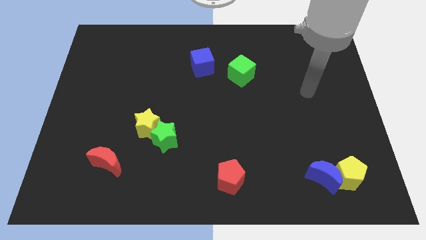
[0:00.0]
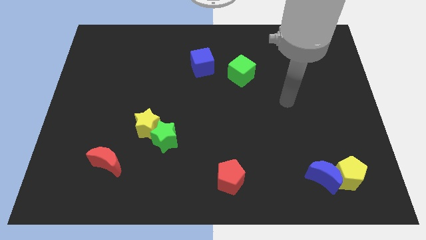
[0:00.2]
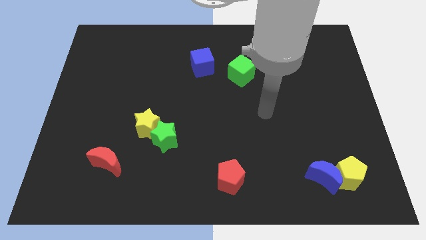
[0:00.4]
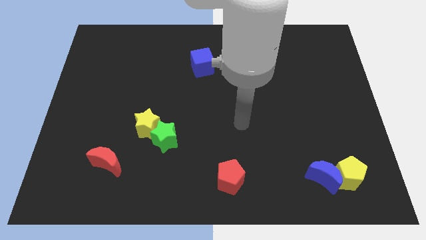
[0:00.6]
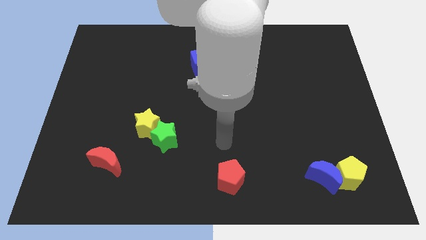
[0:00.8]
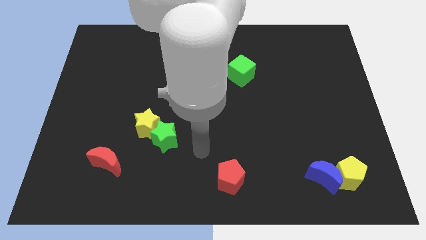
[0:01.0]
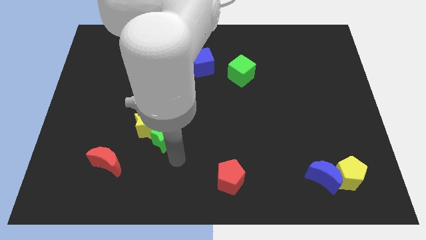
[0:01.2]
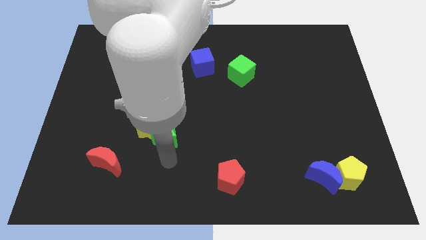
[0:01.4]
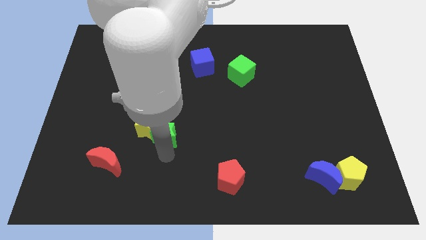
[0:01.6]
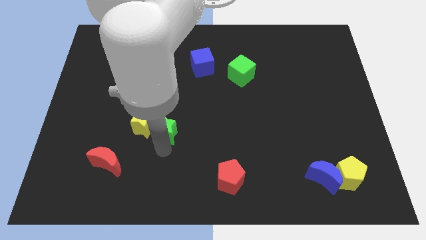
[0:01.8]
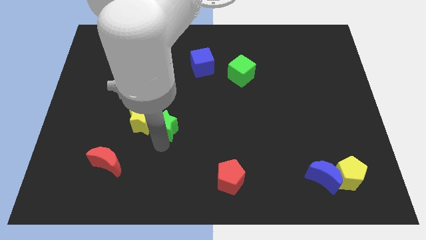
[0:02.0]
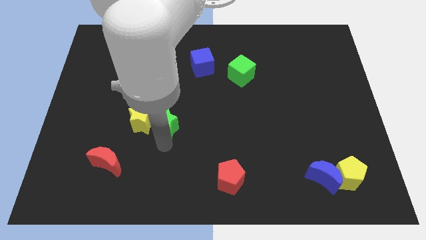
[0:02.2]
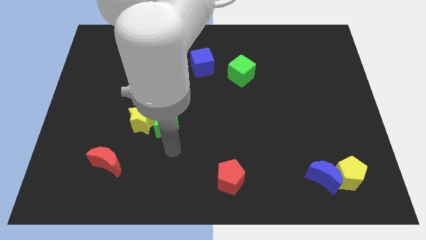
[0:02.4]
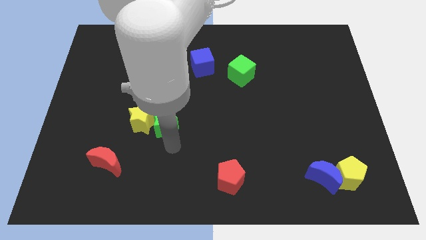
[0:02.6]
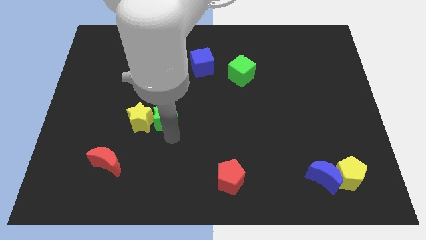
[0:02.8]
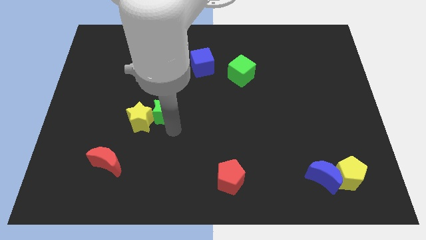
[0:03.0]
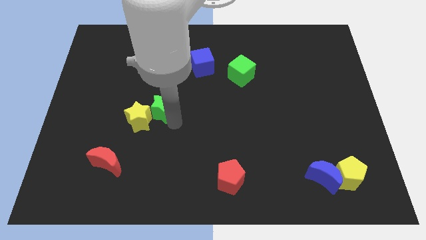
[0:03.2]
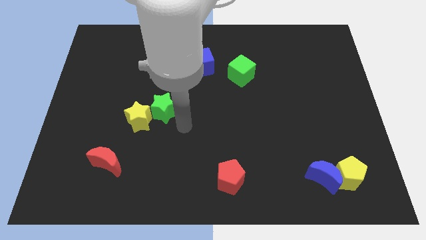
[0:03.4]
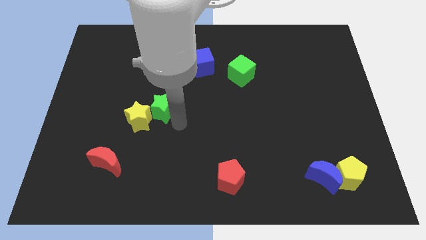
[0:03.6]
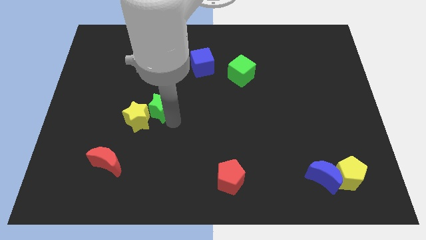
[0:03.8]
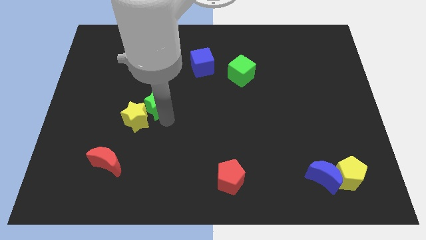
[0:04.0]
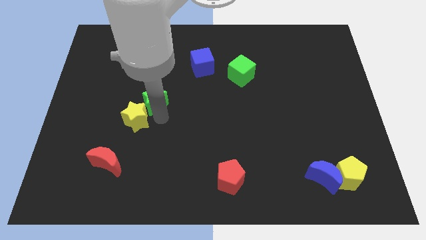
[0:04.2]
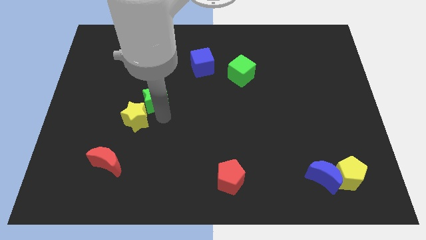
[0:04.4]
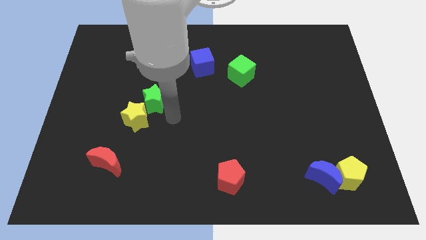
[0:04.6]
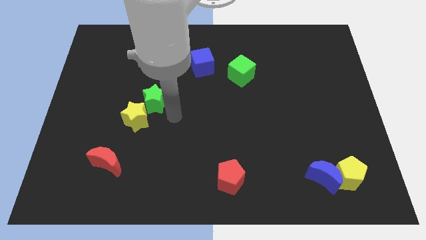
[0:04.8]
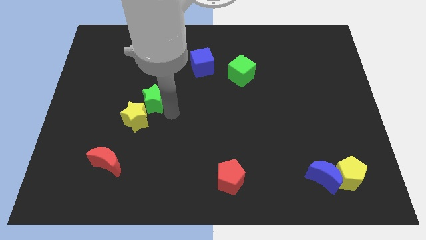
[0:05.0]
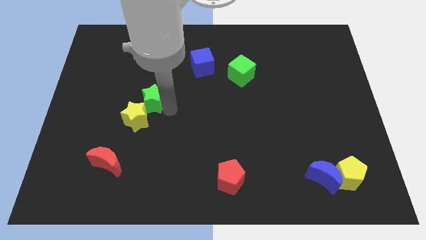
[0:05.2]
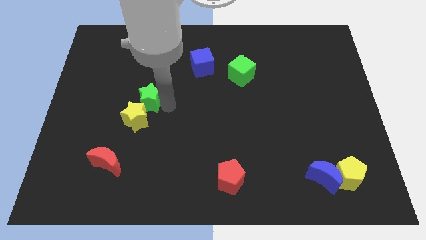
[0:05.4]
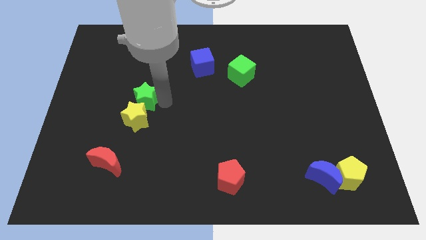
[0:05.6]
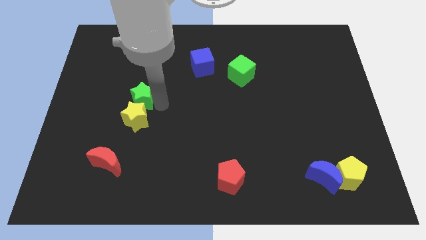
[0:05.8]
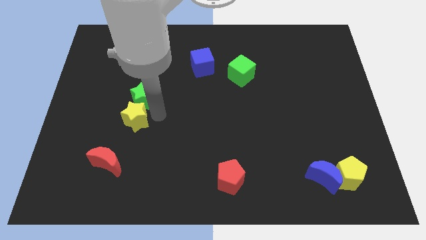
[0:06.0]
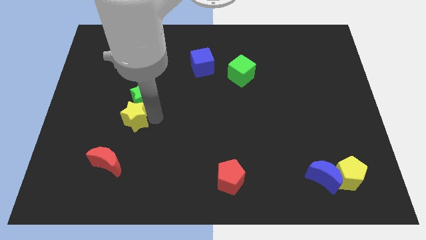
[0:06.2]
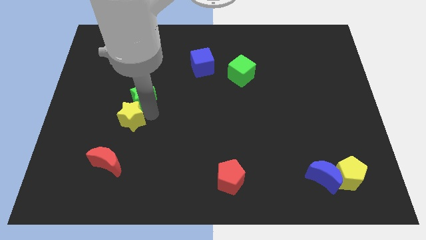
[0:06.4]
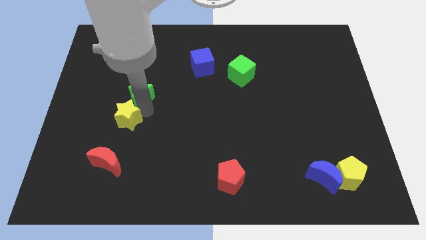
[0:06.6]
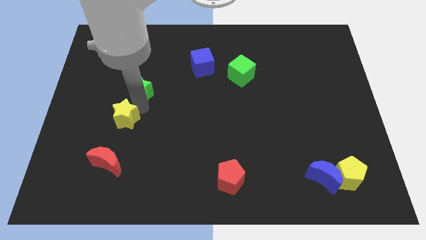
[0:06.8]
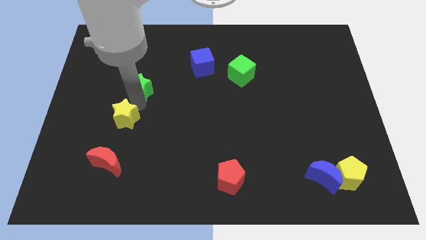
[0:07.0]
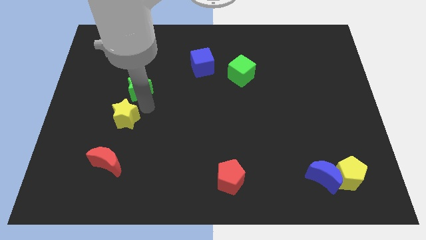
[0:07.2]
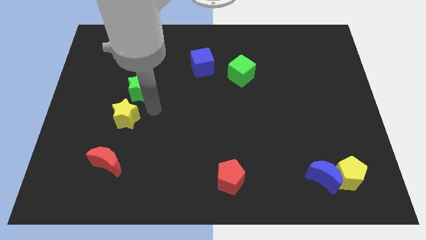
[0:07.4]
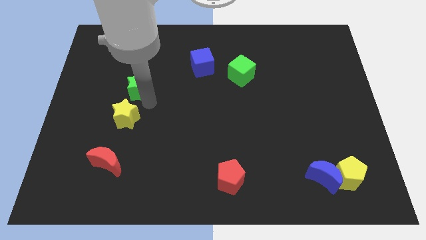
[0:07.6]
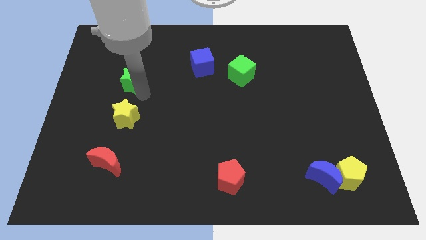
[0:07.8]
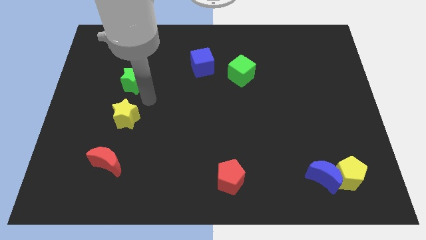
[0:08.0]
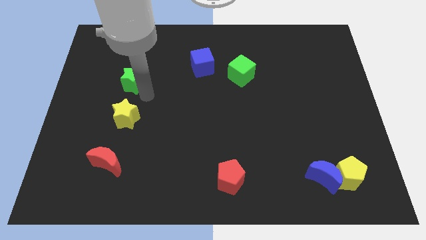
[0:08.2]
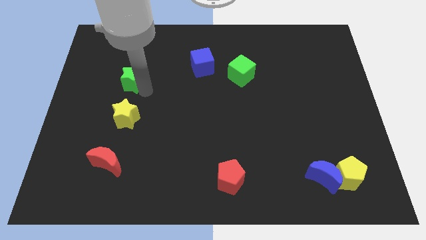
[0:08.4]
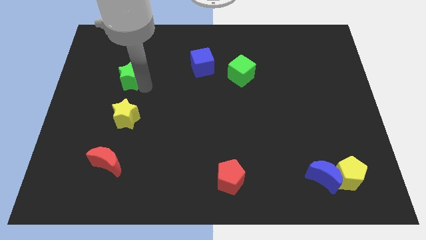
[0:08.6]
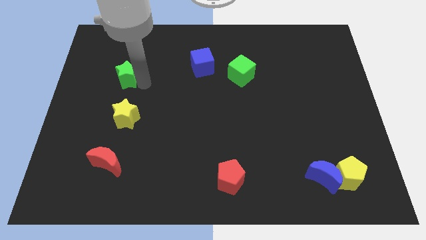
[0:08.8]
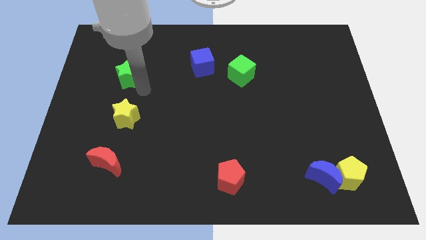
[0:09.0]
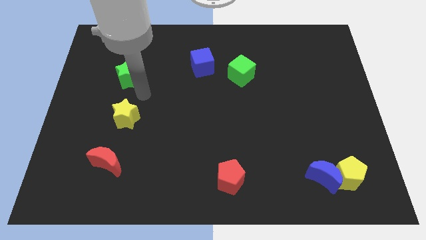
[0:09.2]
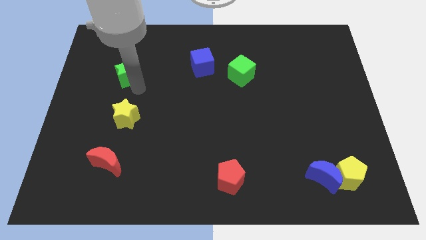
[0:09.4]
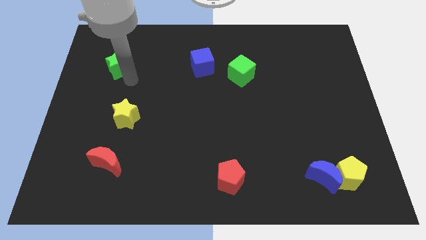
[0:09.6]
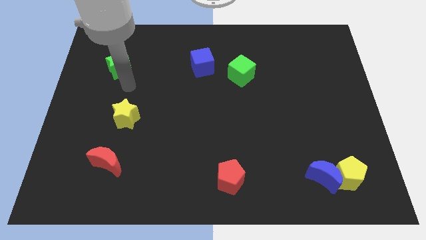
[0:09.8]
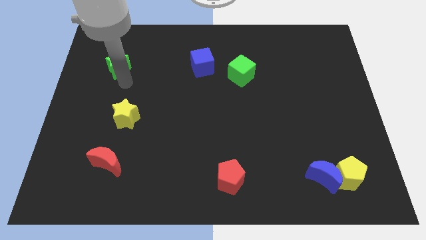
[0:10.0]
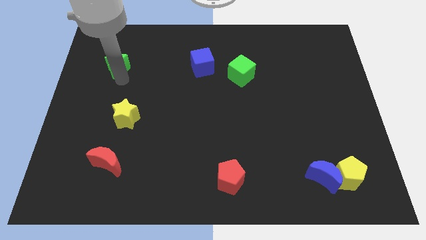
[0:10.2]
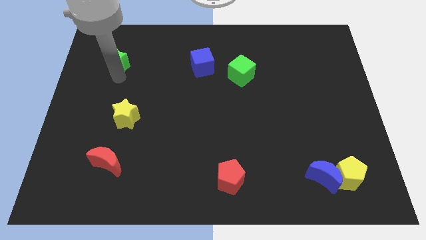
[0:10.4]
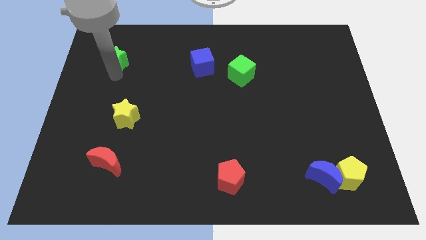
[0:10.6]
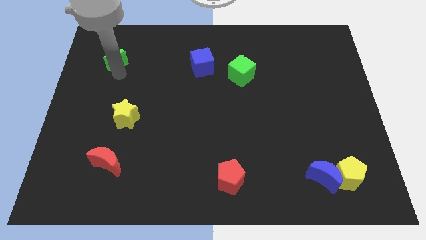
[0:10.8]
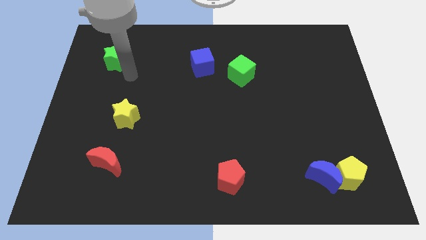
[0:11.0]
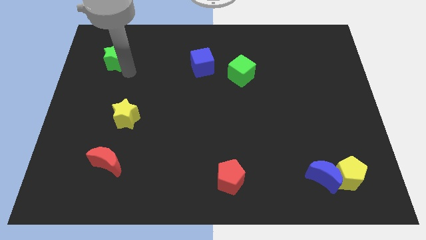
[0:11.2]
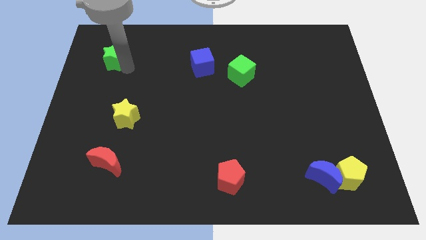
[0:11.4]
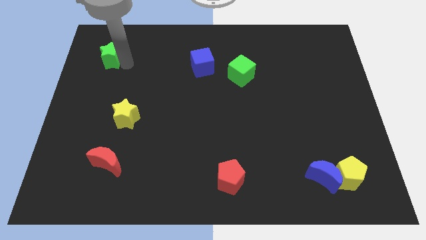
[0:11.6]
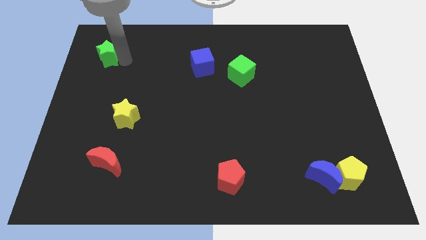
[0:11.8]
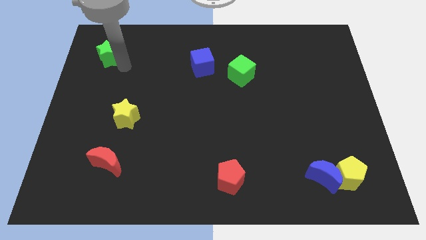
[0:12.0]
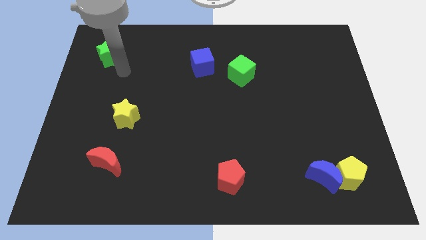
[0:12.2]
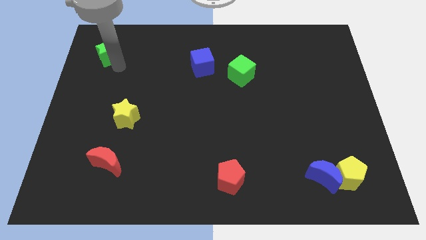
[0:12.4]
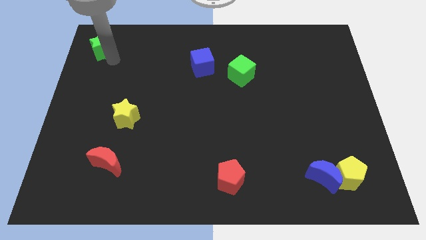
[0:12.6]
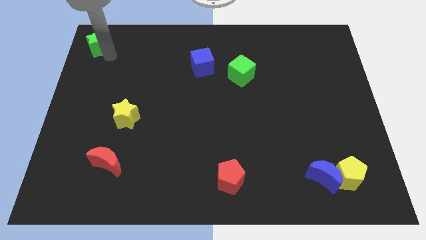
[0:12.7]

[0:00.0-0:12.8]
move the green star to the top left

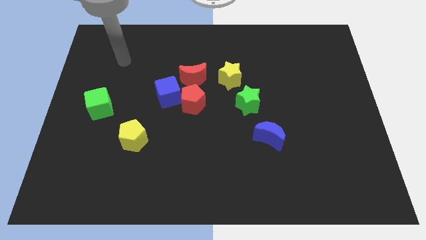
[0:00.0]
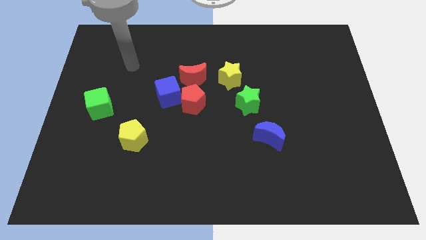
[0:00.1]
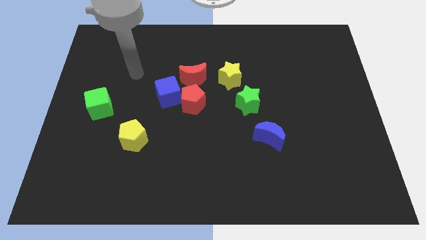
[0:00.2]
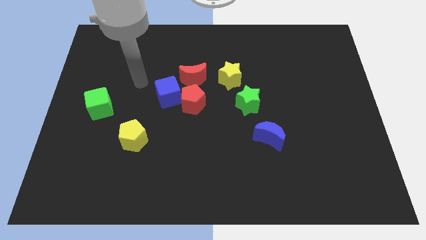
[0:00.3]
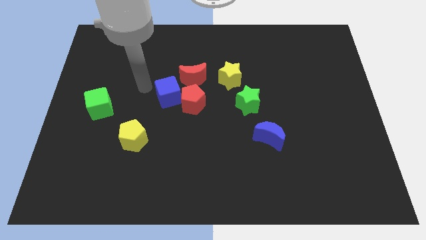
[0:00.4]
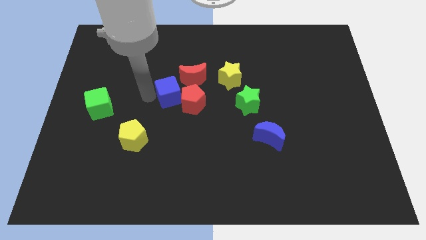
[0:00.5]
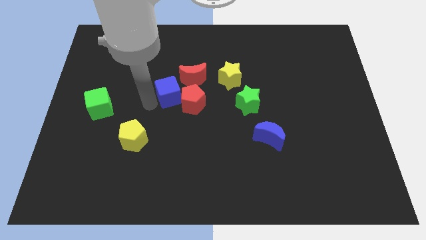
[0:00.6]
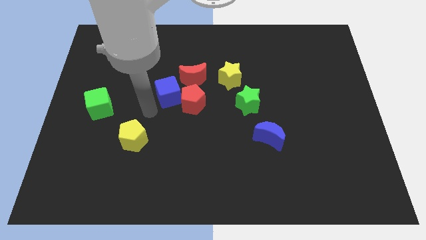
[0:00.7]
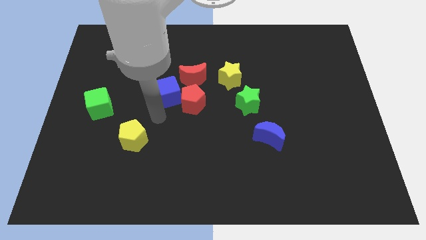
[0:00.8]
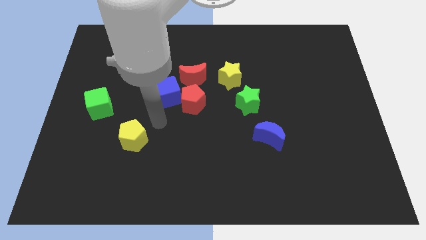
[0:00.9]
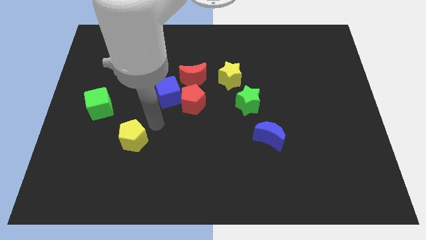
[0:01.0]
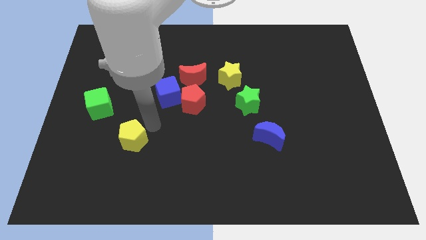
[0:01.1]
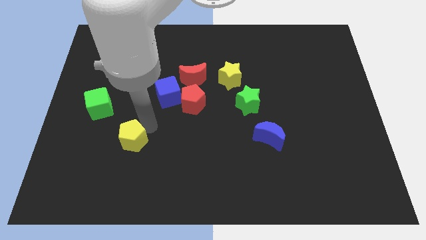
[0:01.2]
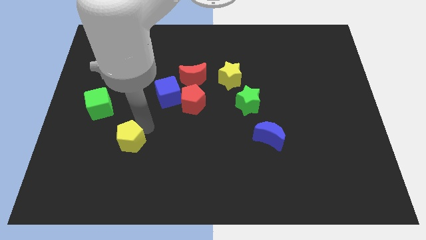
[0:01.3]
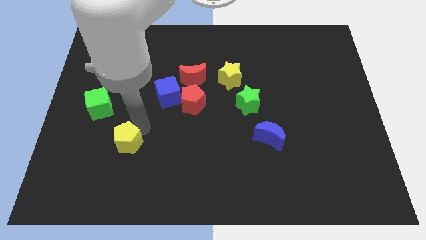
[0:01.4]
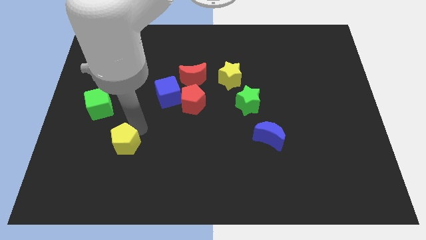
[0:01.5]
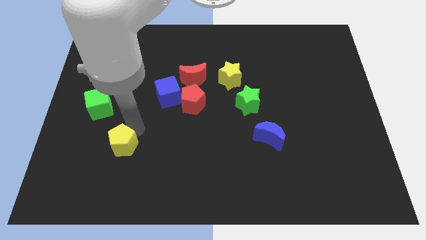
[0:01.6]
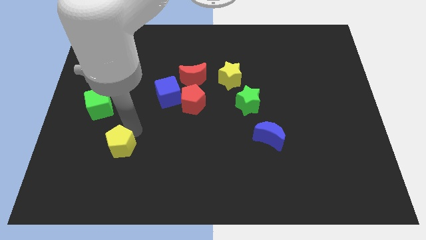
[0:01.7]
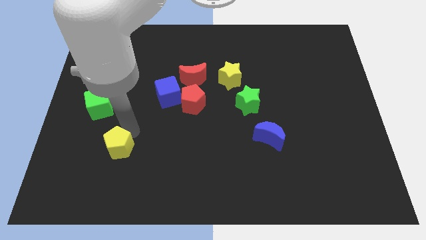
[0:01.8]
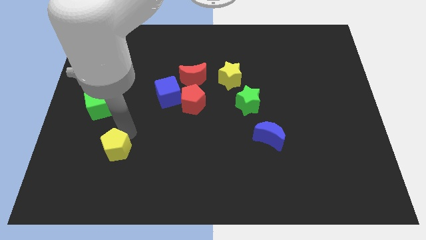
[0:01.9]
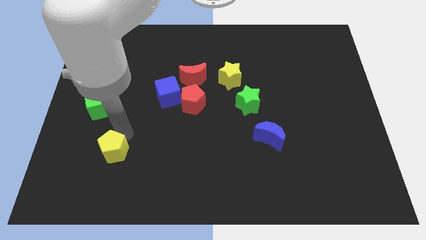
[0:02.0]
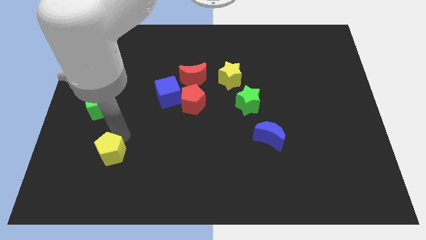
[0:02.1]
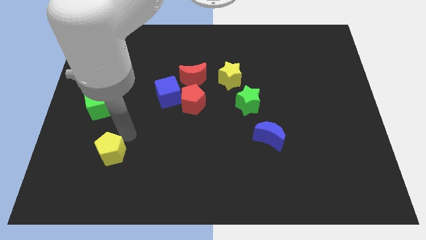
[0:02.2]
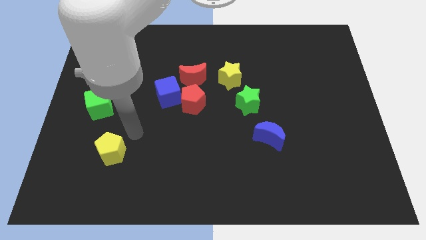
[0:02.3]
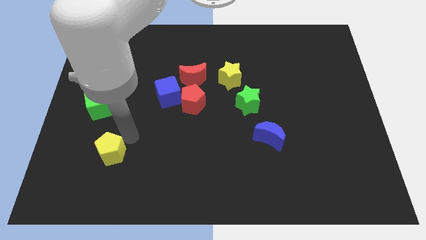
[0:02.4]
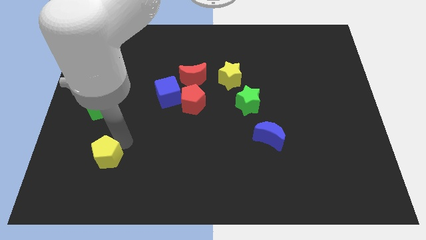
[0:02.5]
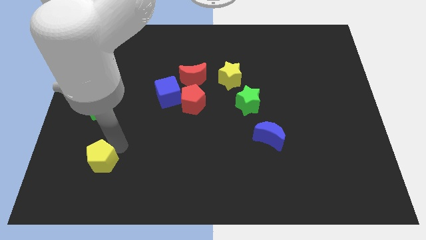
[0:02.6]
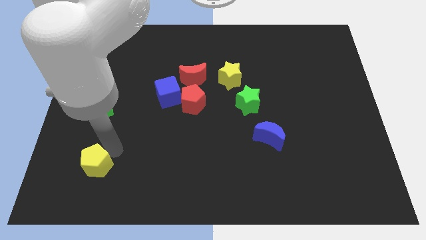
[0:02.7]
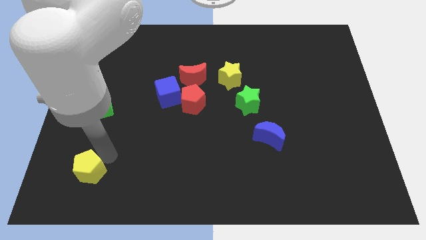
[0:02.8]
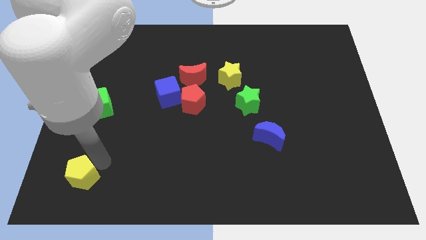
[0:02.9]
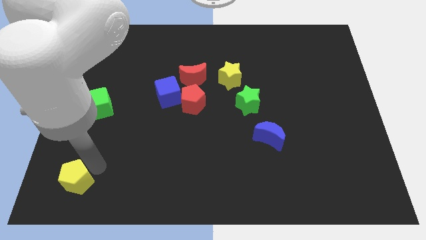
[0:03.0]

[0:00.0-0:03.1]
push the yellow pentagon to the bottom left
